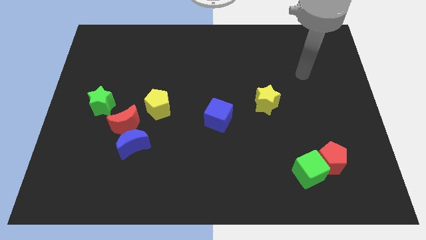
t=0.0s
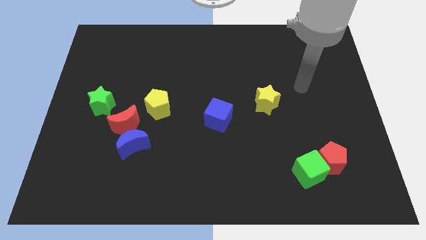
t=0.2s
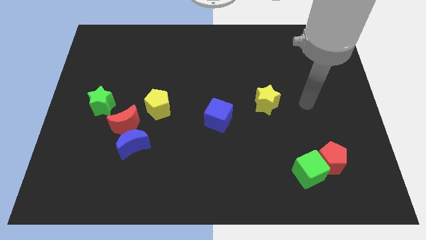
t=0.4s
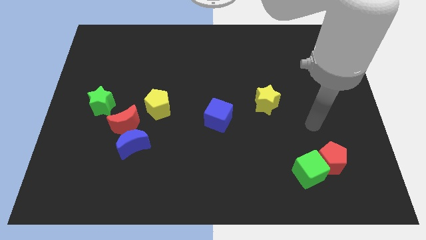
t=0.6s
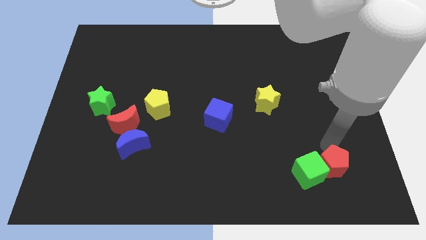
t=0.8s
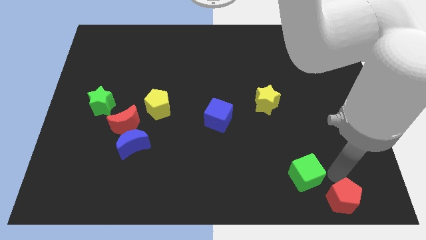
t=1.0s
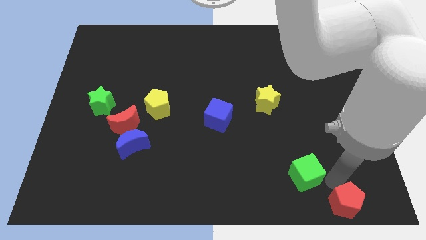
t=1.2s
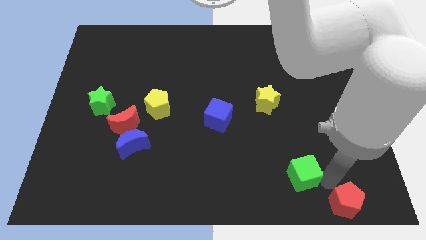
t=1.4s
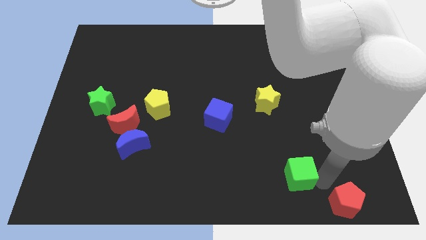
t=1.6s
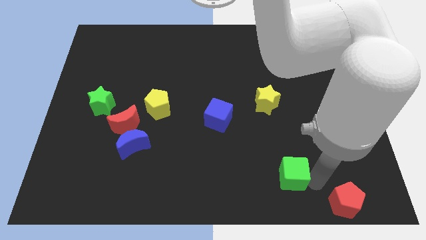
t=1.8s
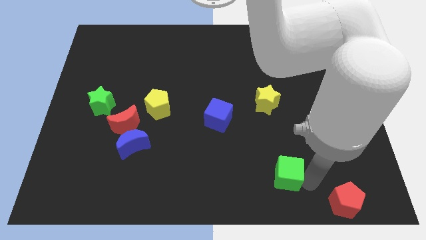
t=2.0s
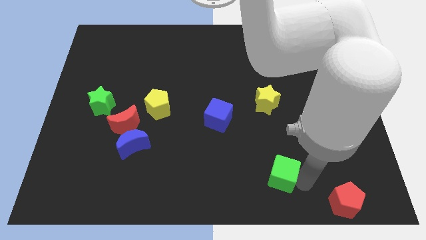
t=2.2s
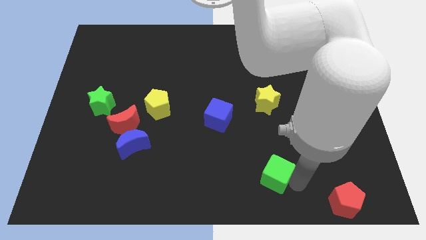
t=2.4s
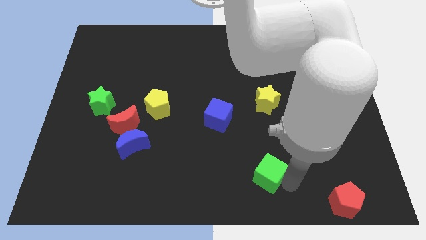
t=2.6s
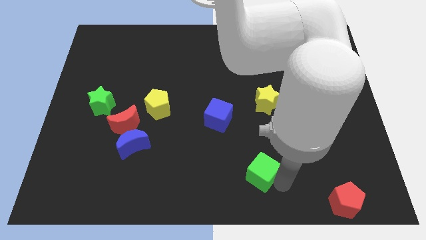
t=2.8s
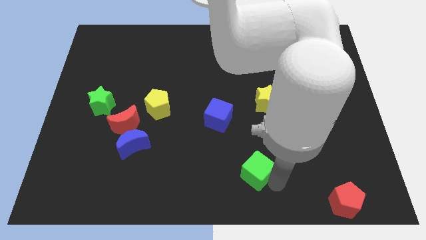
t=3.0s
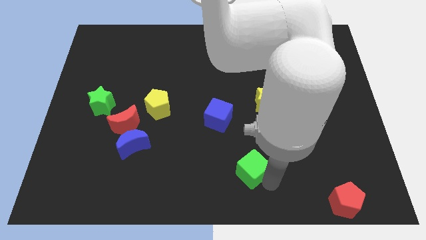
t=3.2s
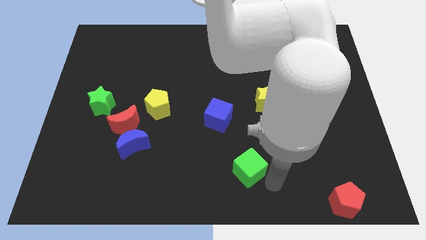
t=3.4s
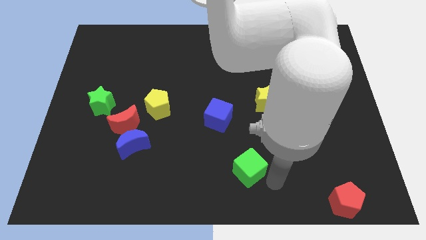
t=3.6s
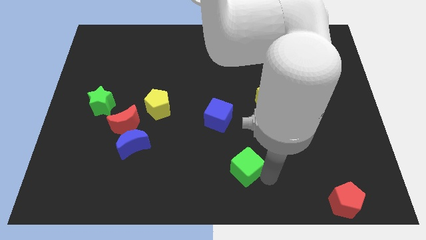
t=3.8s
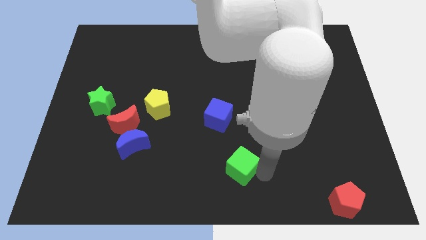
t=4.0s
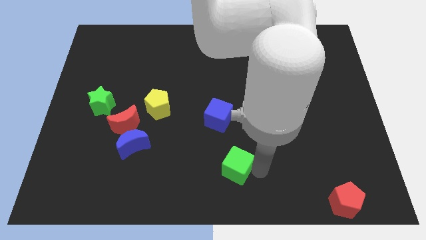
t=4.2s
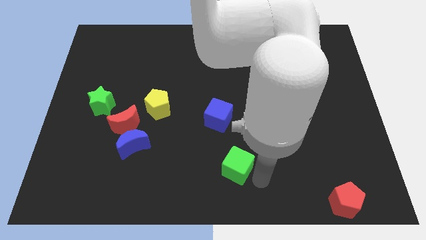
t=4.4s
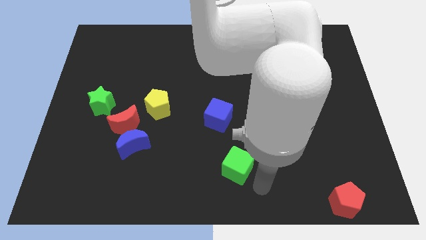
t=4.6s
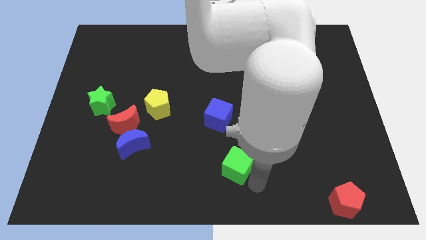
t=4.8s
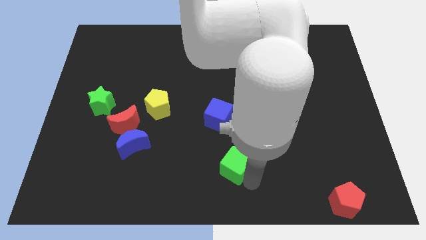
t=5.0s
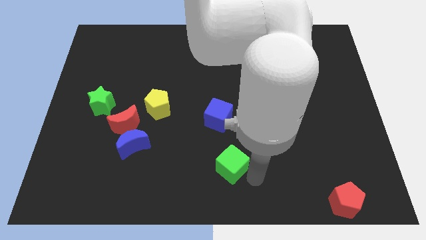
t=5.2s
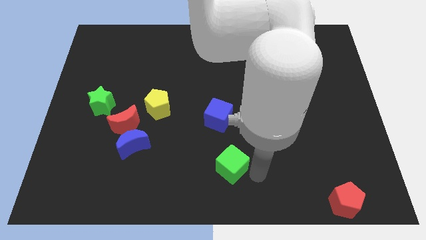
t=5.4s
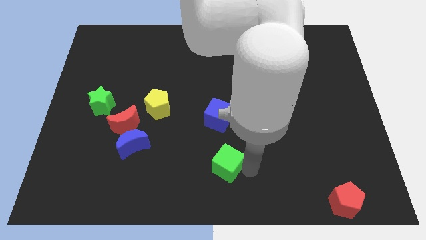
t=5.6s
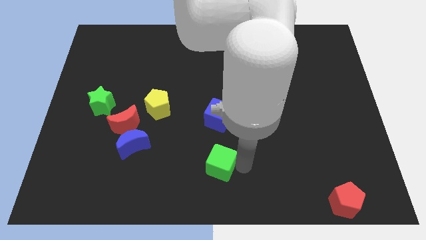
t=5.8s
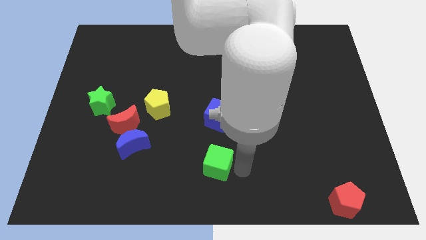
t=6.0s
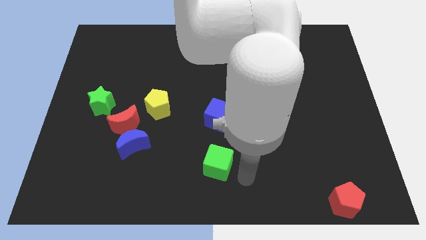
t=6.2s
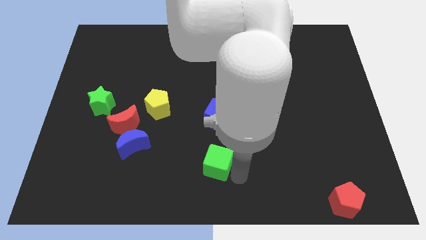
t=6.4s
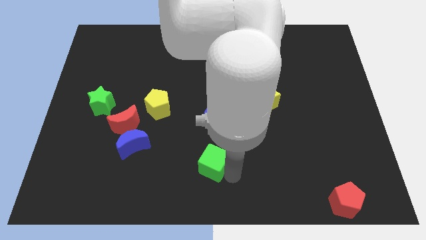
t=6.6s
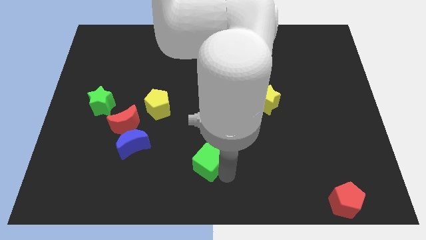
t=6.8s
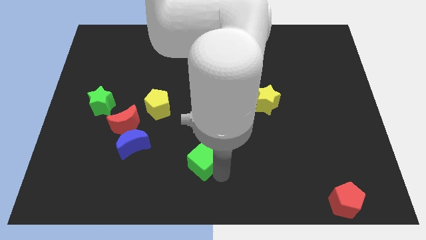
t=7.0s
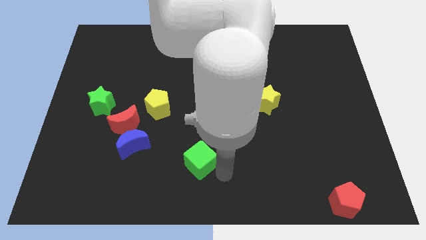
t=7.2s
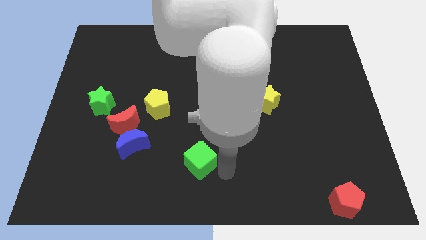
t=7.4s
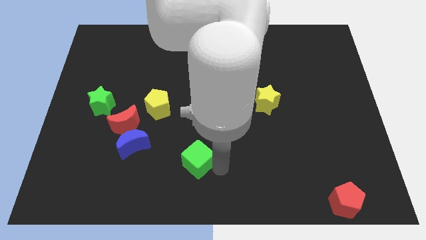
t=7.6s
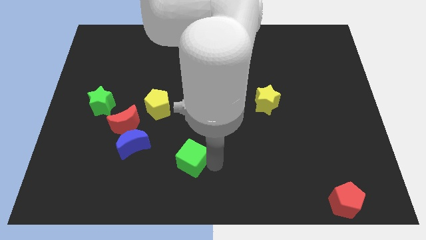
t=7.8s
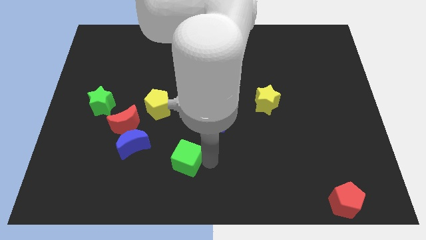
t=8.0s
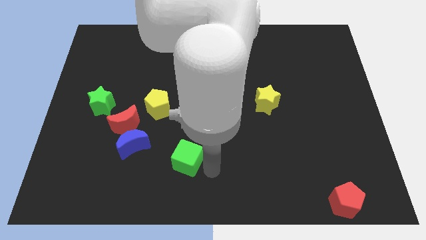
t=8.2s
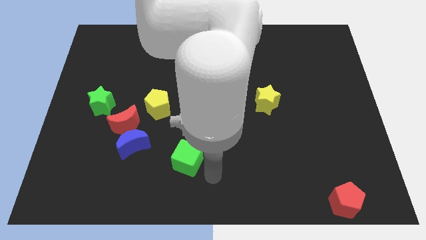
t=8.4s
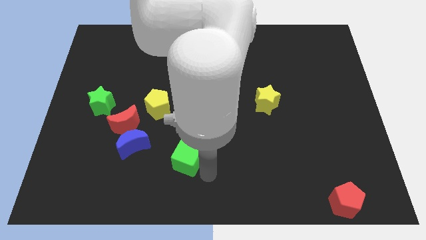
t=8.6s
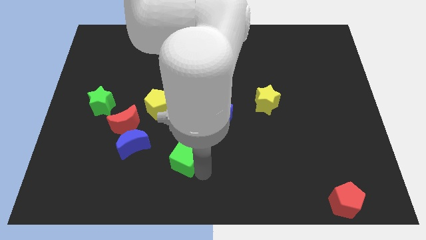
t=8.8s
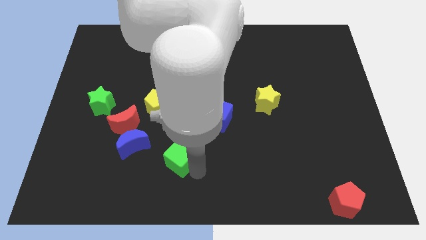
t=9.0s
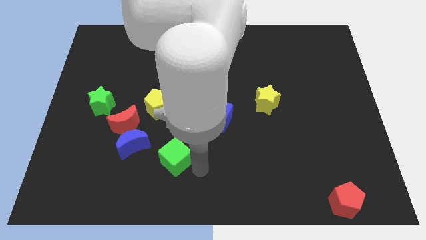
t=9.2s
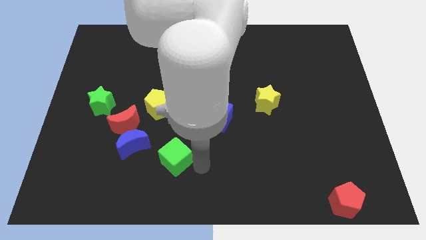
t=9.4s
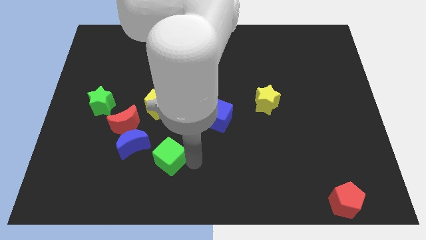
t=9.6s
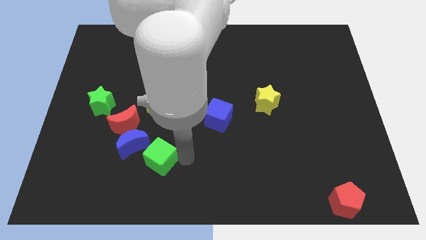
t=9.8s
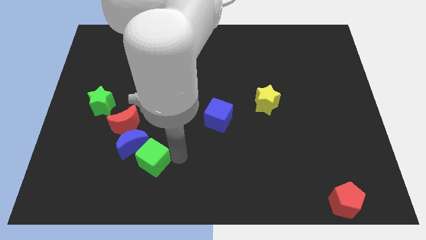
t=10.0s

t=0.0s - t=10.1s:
put the green cube towards the blue moon

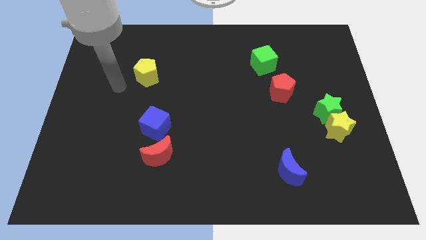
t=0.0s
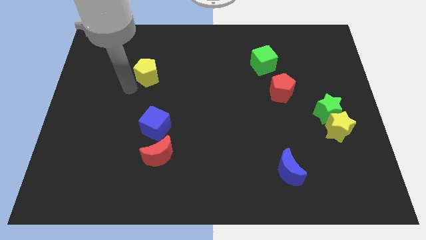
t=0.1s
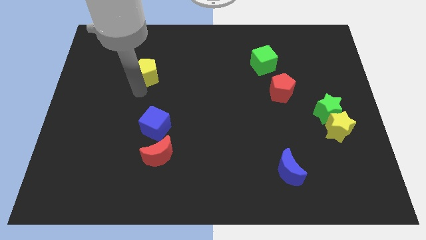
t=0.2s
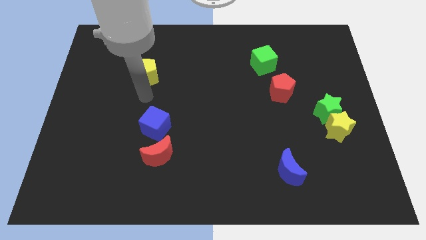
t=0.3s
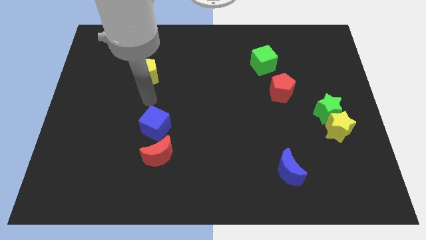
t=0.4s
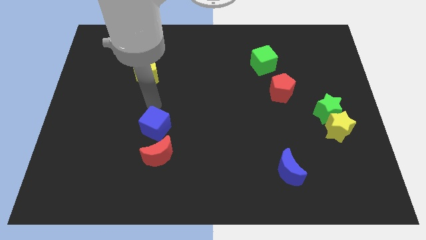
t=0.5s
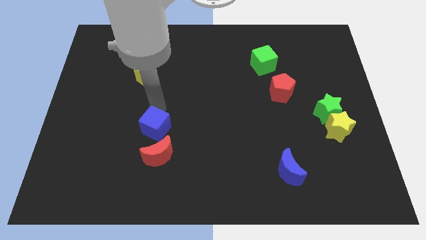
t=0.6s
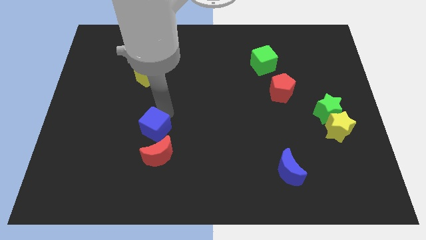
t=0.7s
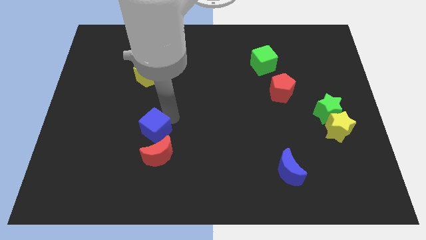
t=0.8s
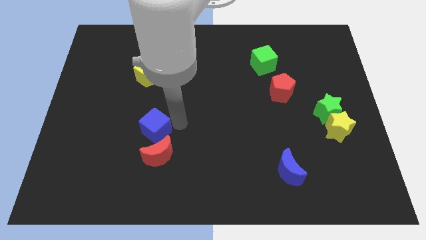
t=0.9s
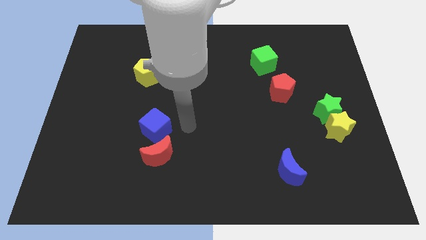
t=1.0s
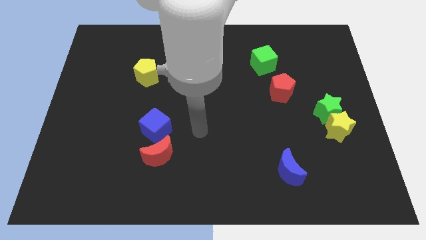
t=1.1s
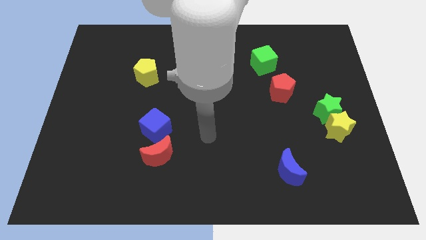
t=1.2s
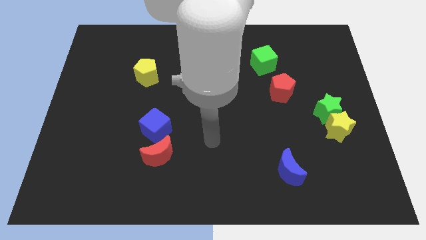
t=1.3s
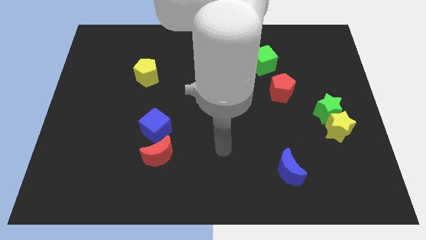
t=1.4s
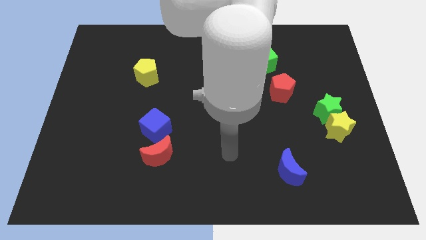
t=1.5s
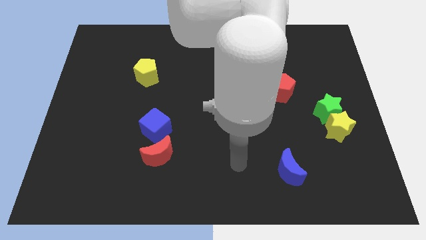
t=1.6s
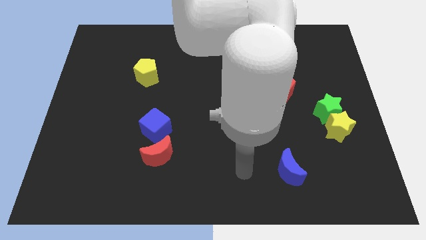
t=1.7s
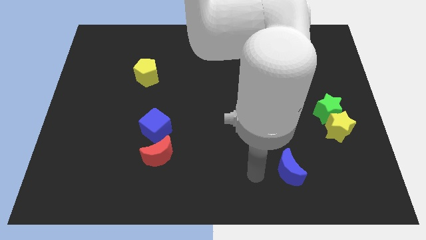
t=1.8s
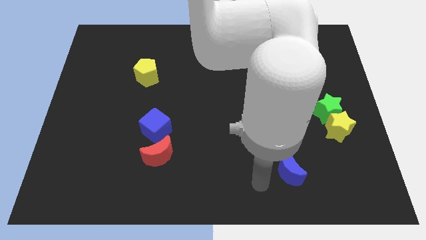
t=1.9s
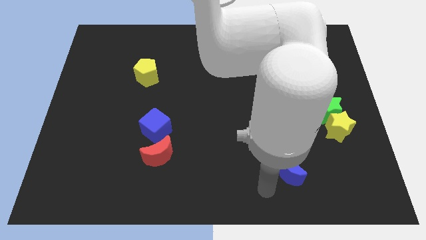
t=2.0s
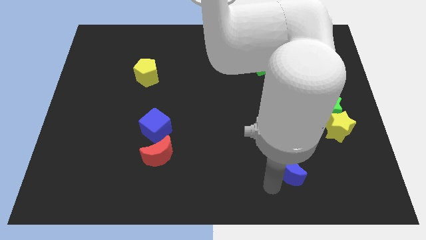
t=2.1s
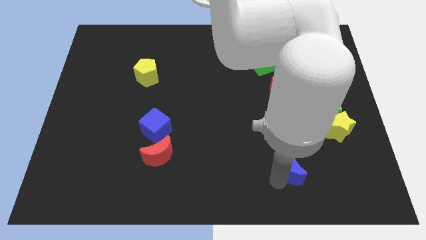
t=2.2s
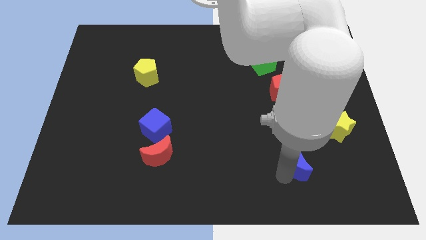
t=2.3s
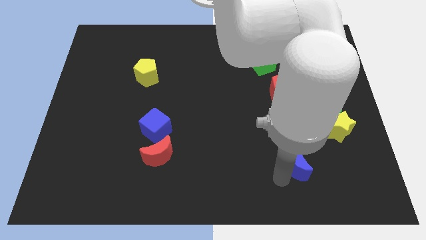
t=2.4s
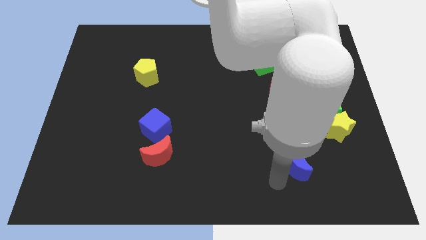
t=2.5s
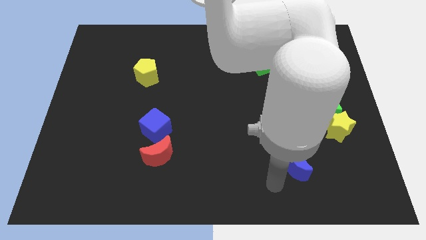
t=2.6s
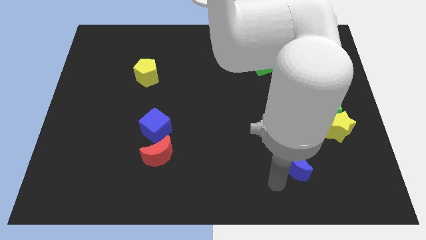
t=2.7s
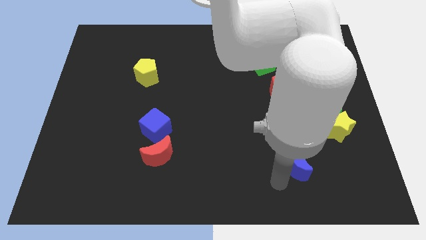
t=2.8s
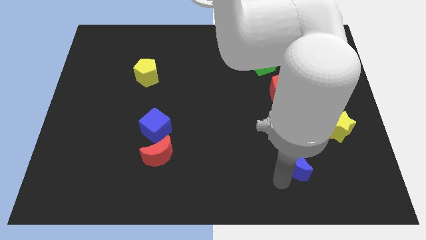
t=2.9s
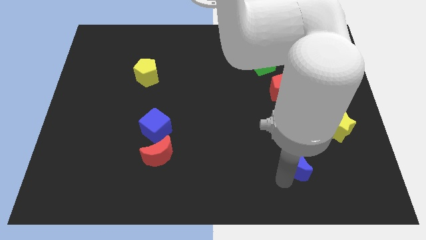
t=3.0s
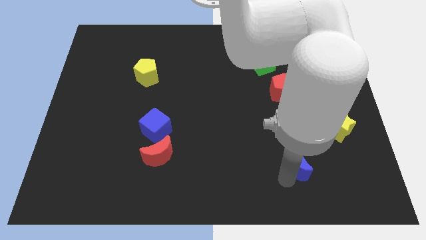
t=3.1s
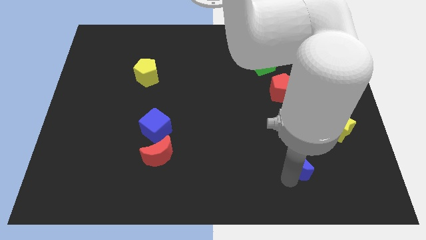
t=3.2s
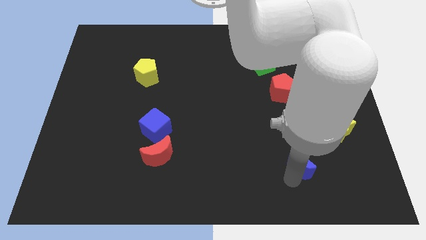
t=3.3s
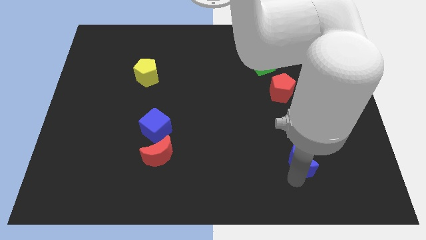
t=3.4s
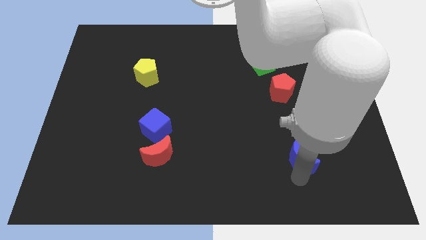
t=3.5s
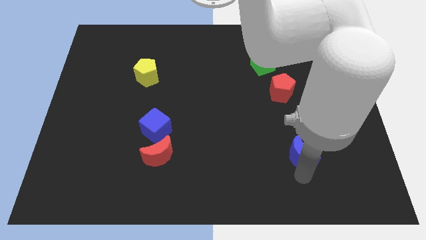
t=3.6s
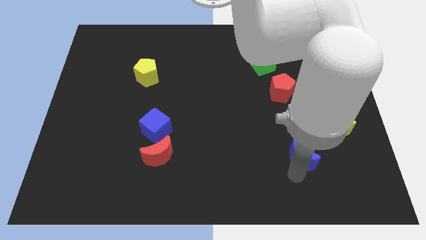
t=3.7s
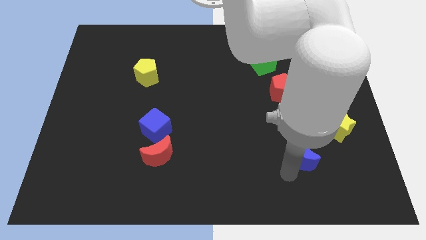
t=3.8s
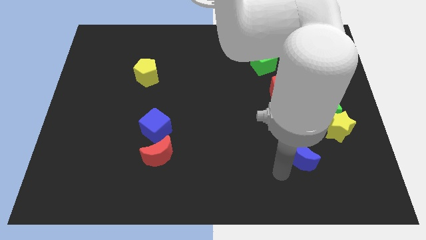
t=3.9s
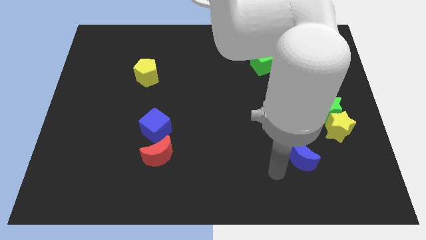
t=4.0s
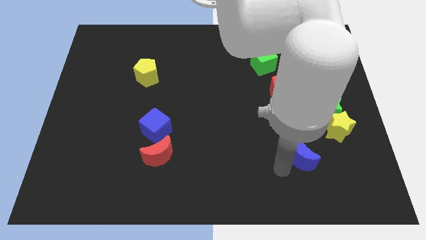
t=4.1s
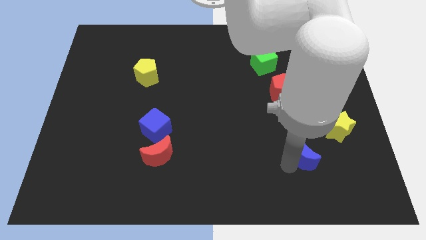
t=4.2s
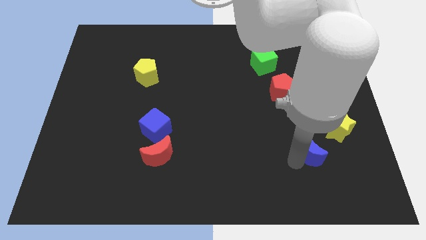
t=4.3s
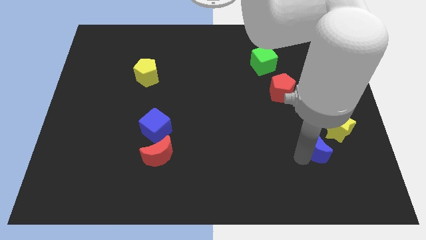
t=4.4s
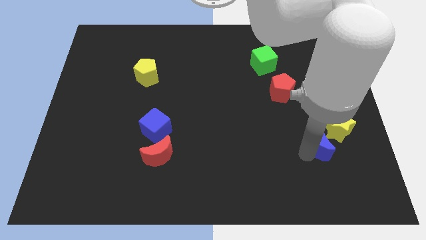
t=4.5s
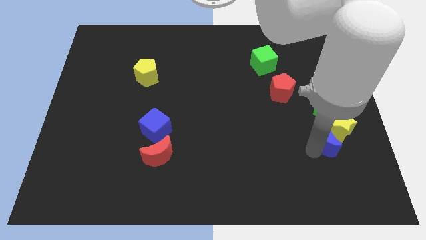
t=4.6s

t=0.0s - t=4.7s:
put the blue moon to the yellow star
